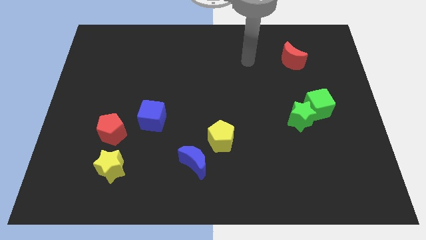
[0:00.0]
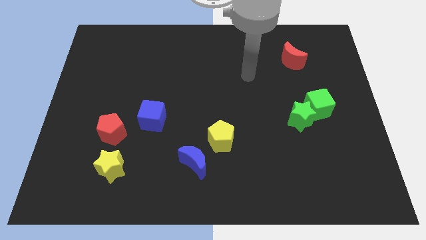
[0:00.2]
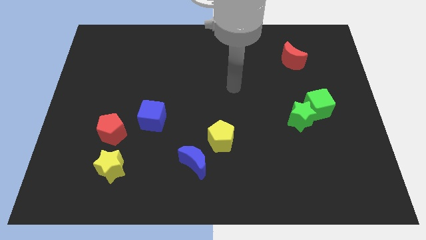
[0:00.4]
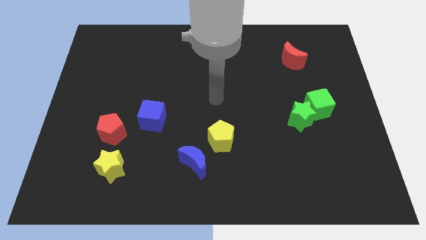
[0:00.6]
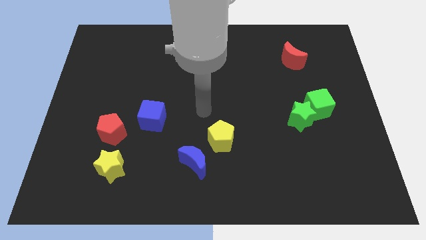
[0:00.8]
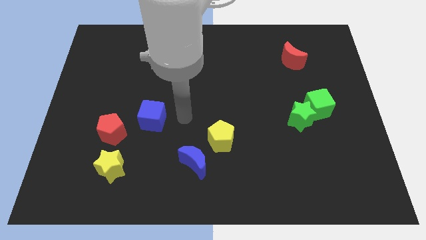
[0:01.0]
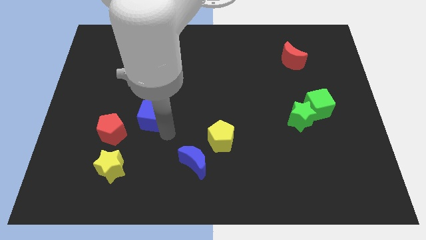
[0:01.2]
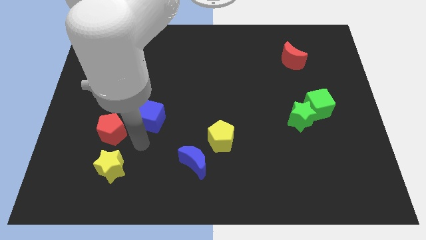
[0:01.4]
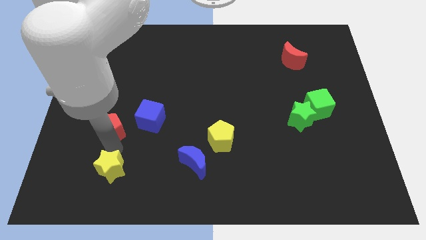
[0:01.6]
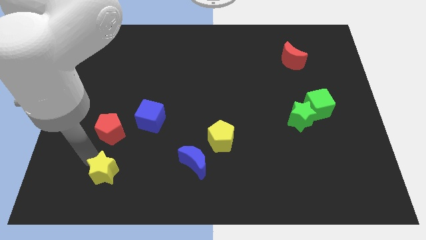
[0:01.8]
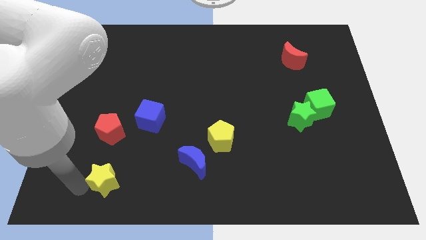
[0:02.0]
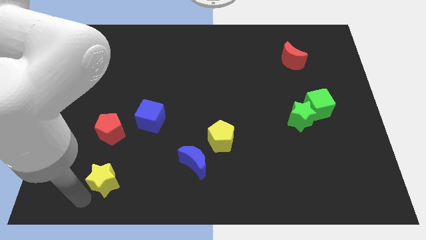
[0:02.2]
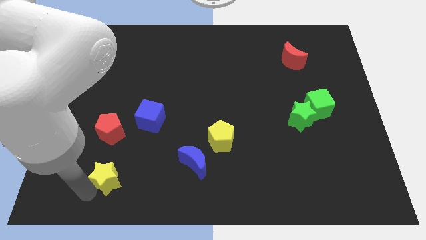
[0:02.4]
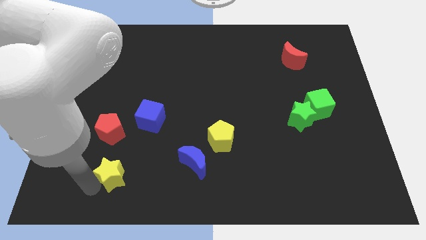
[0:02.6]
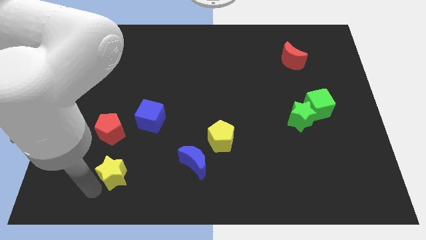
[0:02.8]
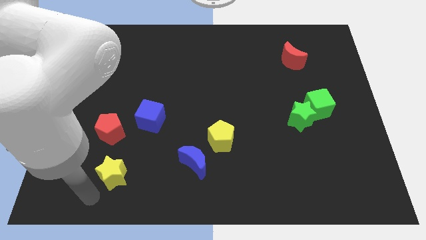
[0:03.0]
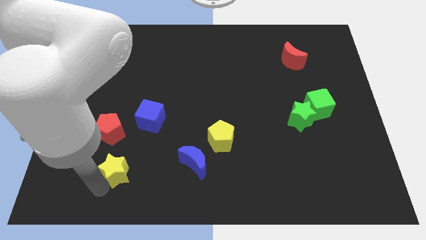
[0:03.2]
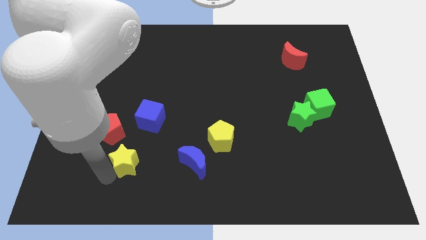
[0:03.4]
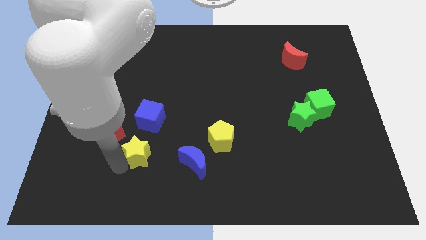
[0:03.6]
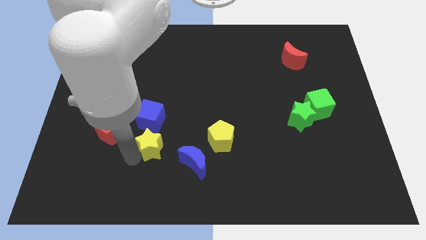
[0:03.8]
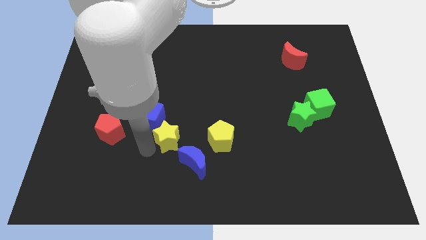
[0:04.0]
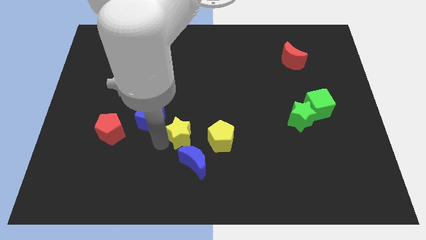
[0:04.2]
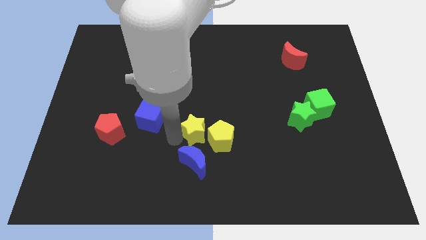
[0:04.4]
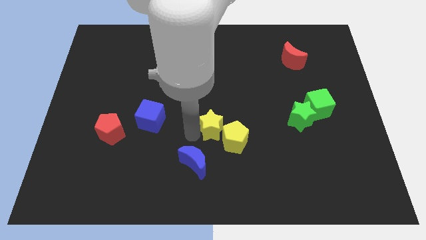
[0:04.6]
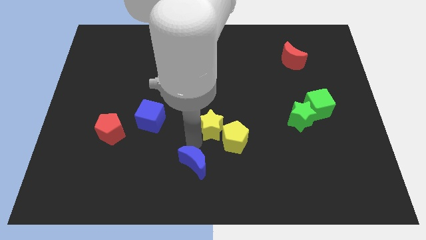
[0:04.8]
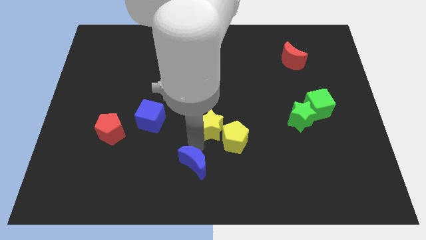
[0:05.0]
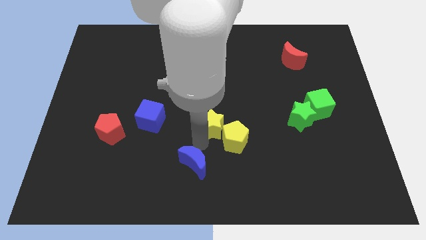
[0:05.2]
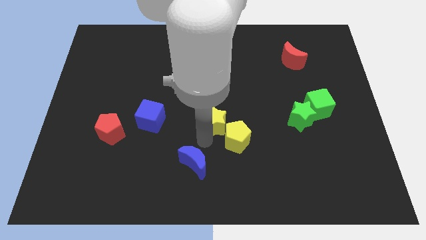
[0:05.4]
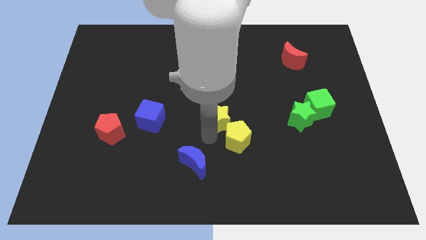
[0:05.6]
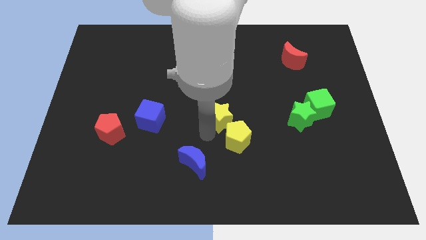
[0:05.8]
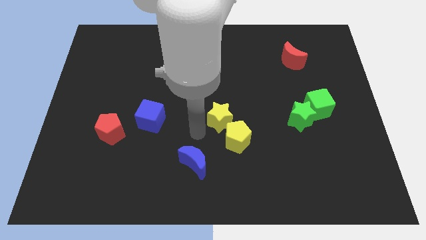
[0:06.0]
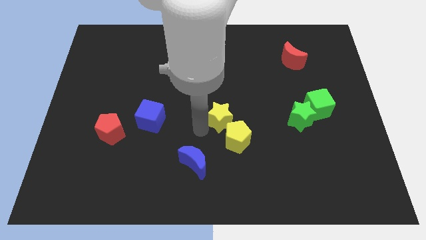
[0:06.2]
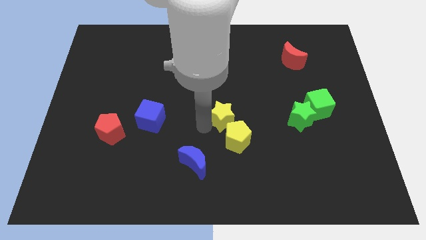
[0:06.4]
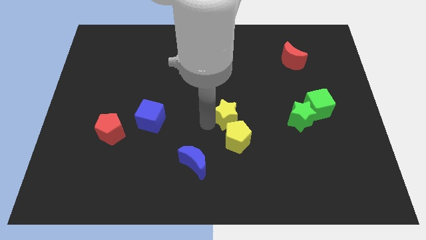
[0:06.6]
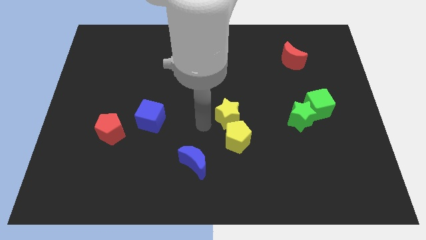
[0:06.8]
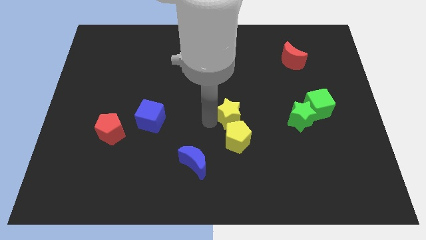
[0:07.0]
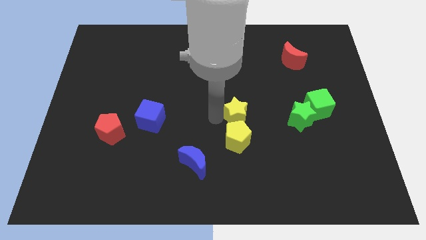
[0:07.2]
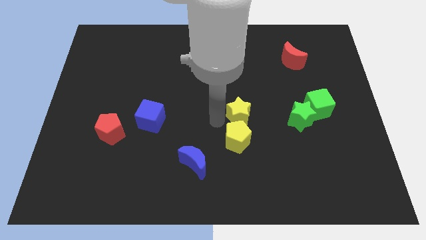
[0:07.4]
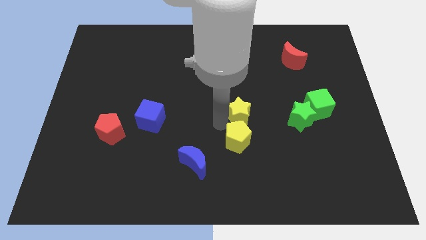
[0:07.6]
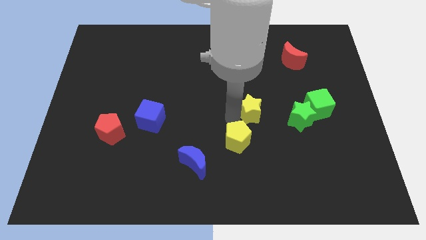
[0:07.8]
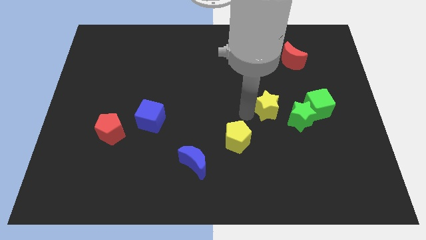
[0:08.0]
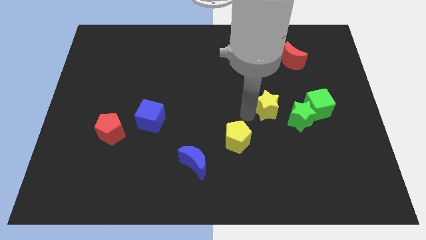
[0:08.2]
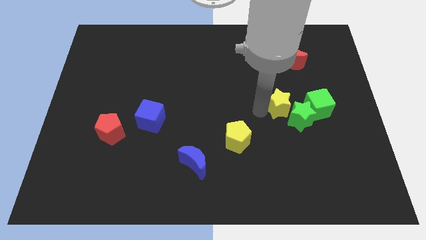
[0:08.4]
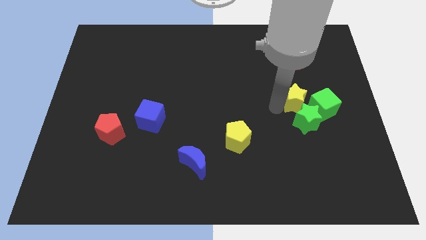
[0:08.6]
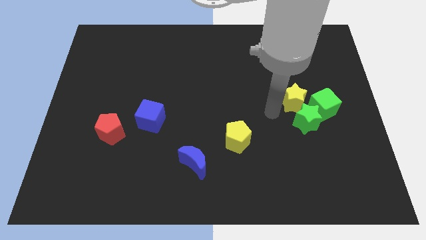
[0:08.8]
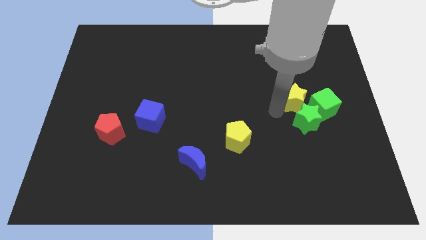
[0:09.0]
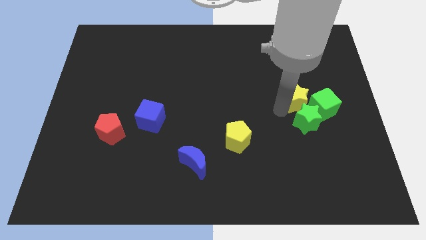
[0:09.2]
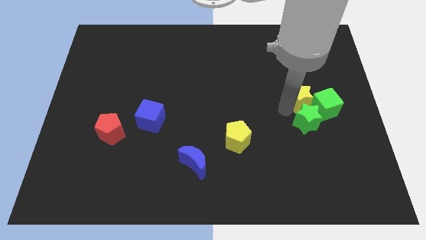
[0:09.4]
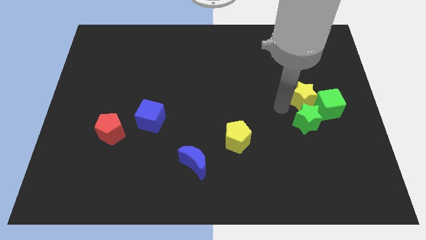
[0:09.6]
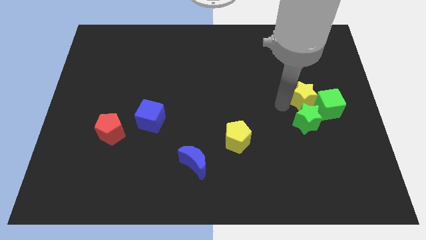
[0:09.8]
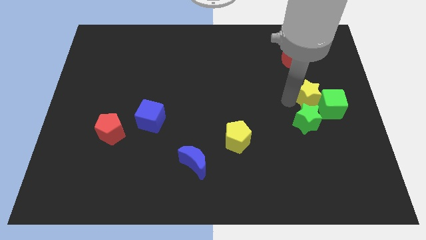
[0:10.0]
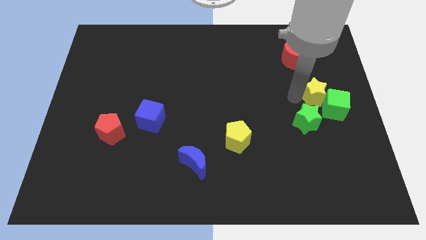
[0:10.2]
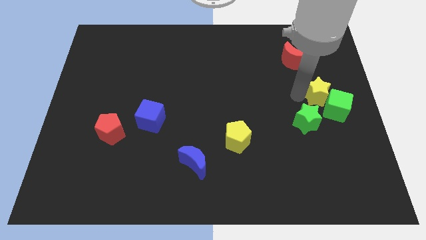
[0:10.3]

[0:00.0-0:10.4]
slide the yellow star to the center right

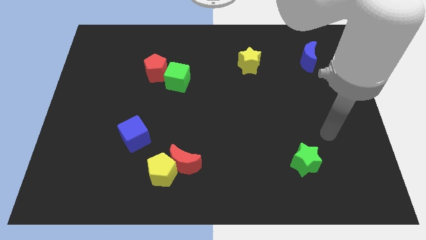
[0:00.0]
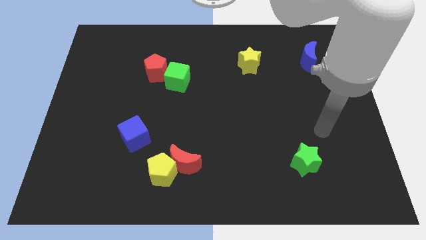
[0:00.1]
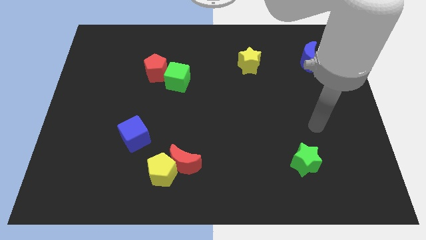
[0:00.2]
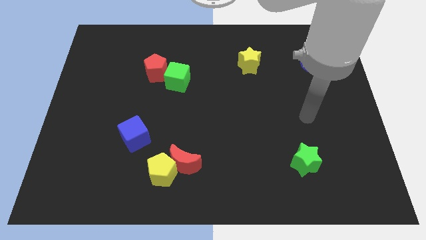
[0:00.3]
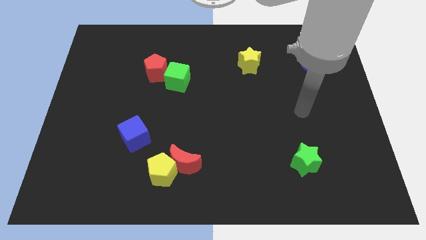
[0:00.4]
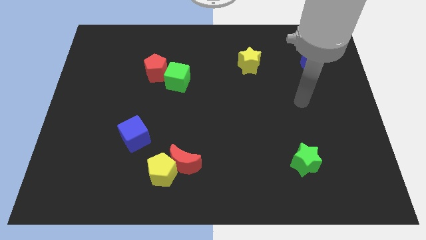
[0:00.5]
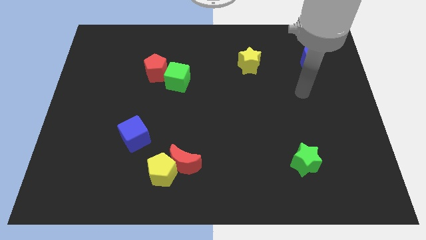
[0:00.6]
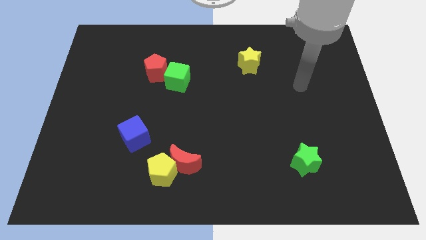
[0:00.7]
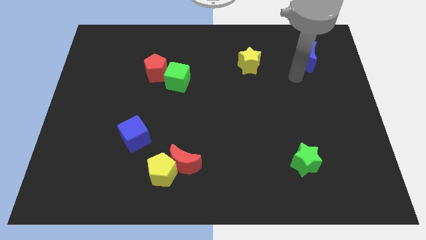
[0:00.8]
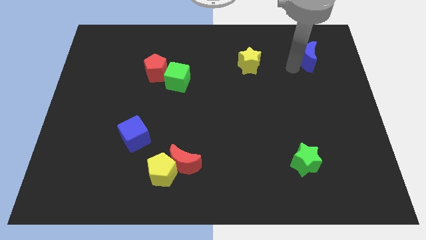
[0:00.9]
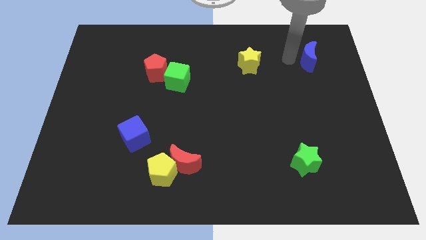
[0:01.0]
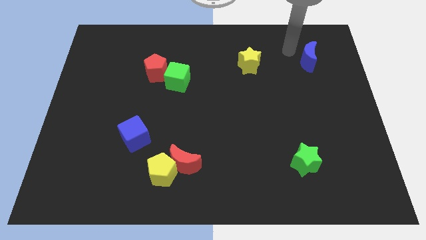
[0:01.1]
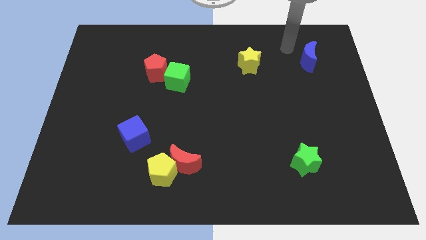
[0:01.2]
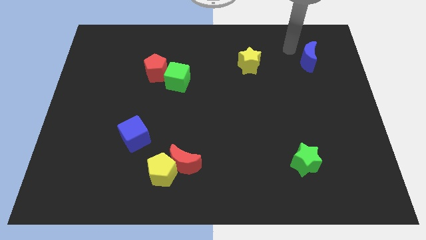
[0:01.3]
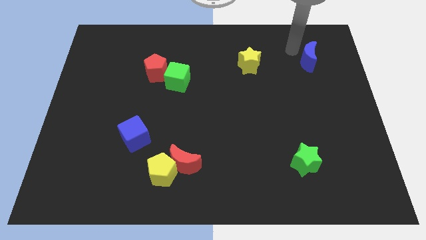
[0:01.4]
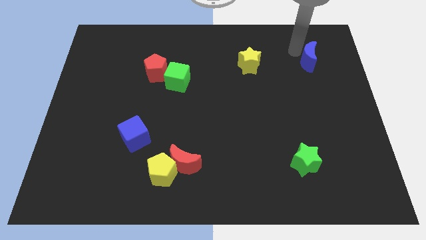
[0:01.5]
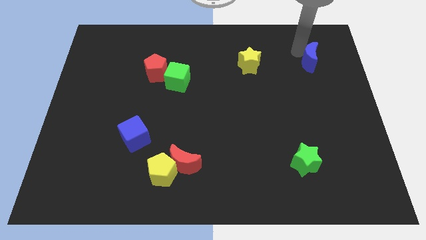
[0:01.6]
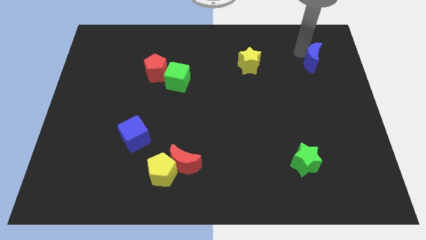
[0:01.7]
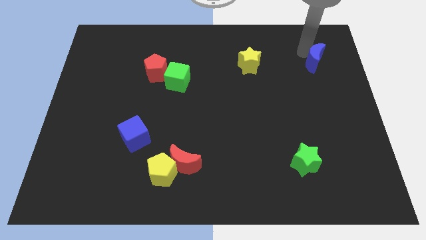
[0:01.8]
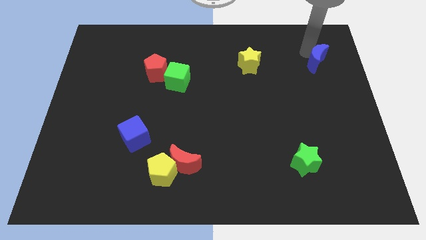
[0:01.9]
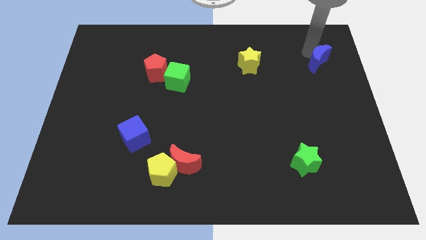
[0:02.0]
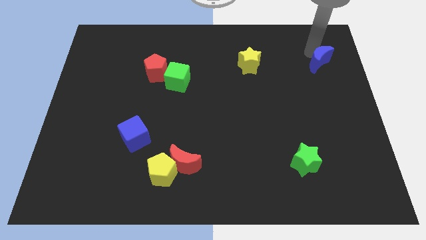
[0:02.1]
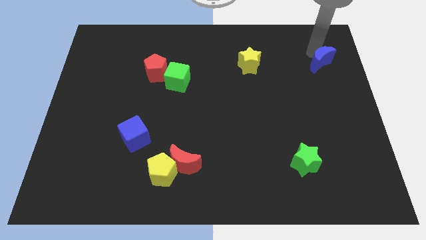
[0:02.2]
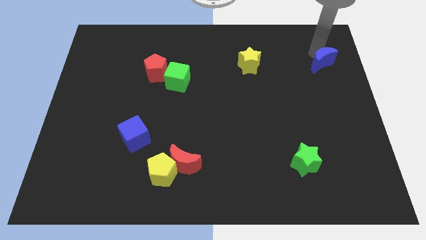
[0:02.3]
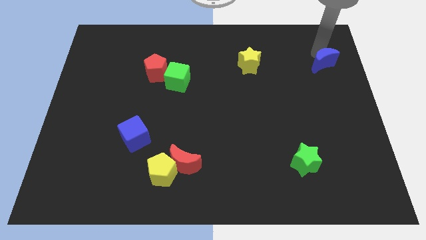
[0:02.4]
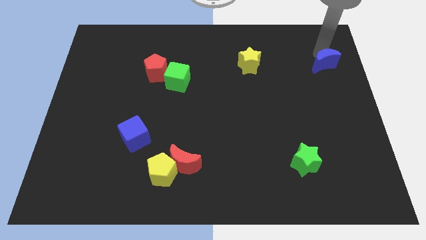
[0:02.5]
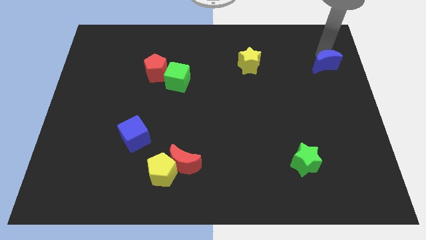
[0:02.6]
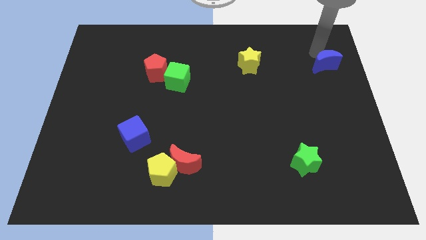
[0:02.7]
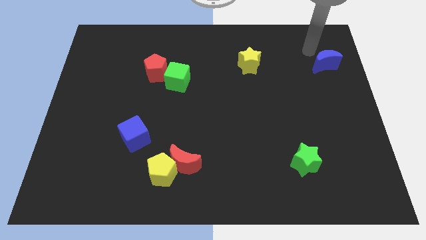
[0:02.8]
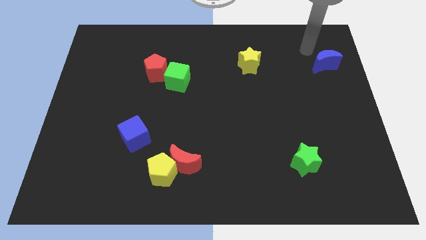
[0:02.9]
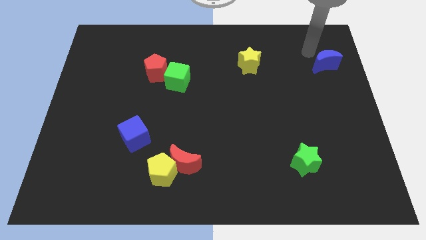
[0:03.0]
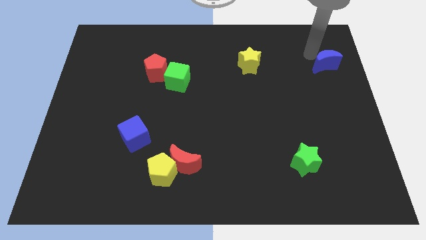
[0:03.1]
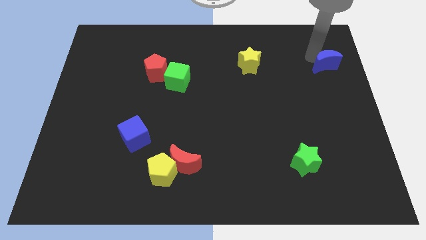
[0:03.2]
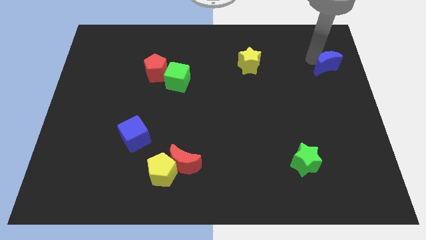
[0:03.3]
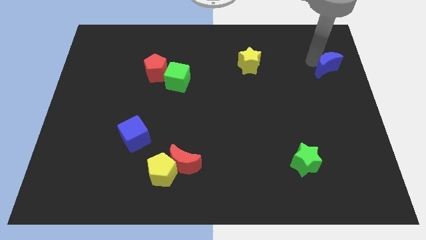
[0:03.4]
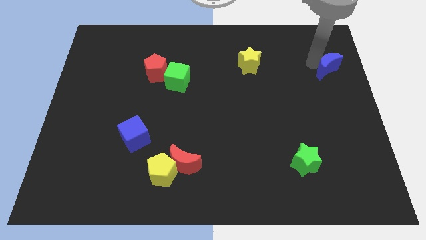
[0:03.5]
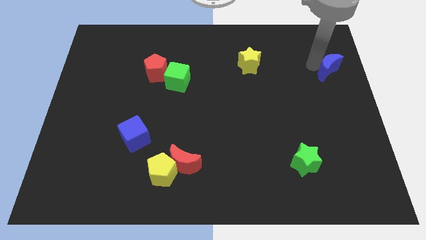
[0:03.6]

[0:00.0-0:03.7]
slide the blue moon to the center right
